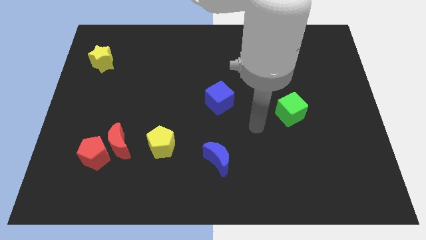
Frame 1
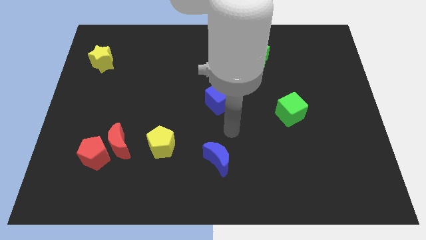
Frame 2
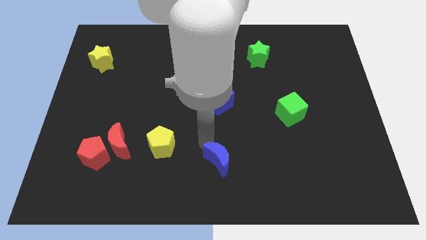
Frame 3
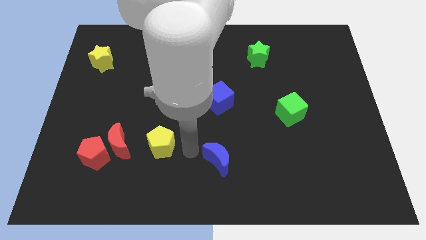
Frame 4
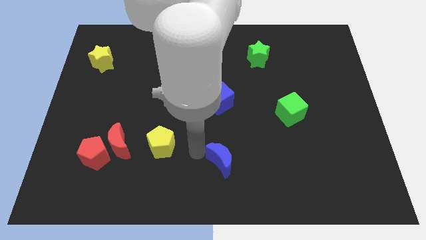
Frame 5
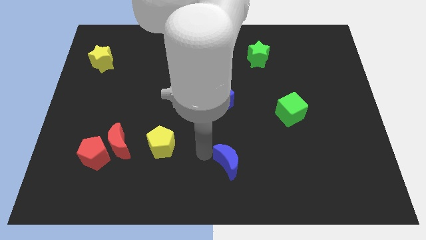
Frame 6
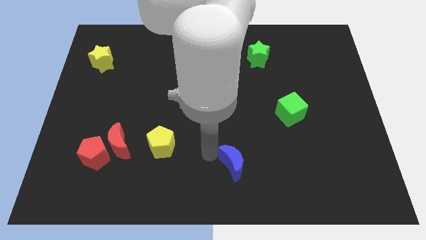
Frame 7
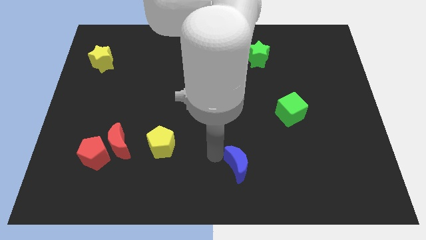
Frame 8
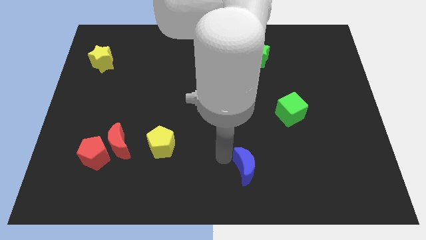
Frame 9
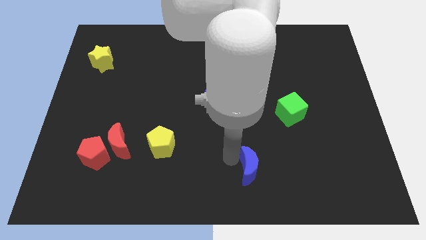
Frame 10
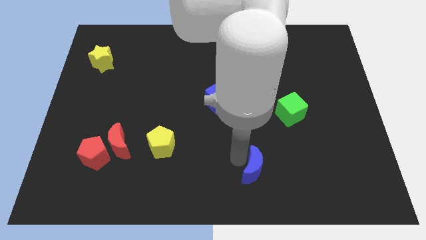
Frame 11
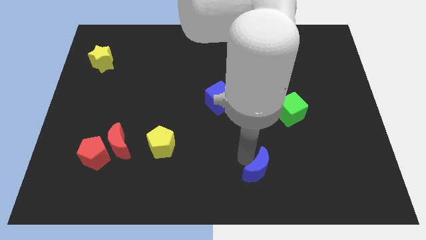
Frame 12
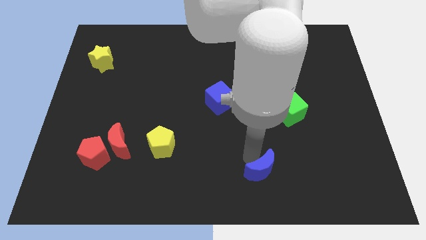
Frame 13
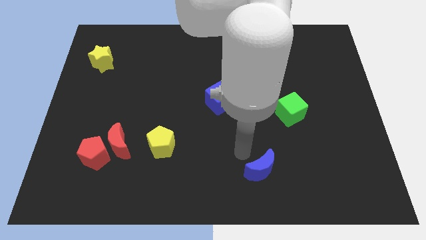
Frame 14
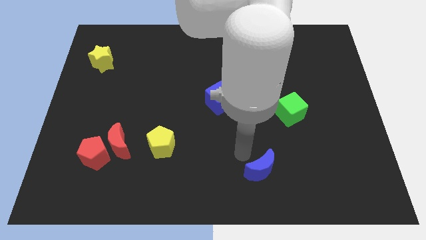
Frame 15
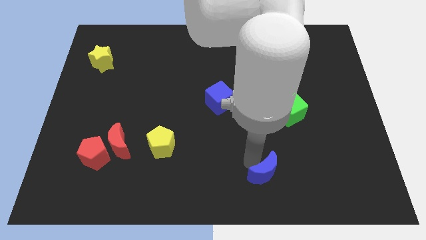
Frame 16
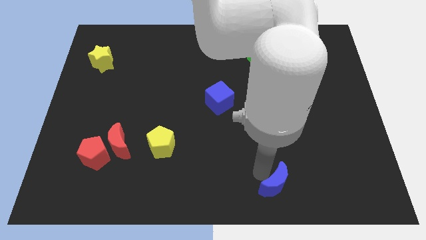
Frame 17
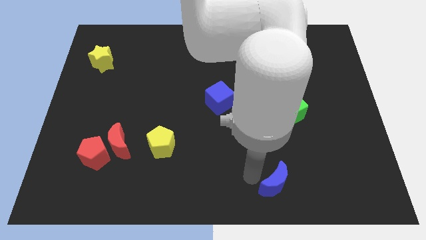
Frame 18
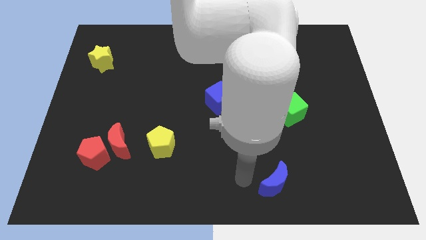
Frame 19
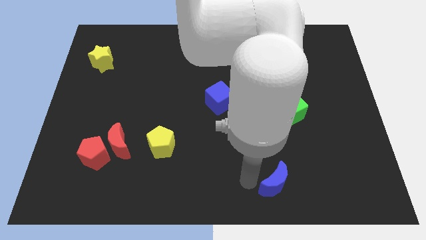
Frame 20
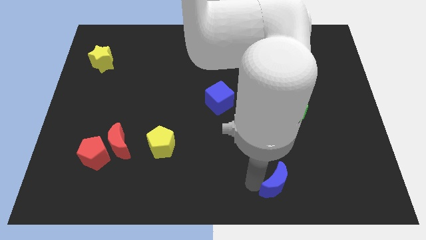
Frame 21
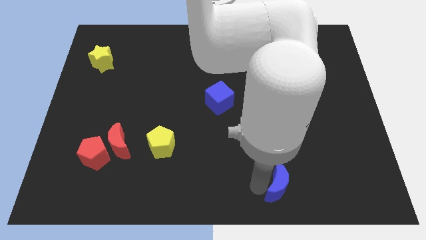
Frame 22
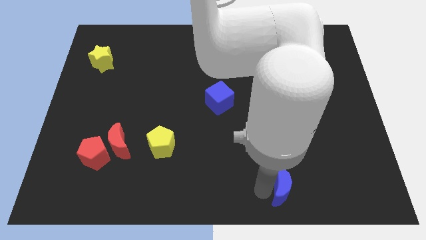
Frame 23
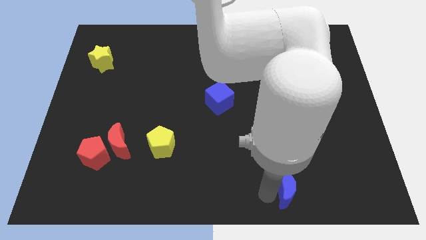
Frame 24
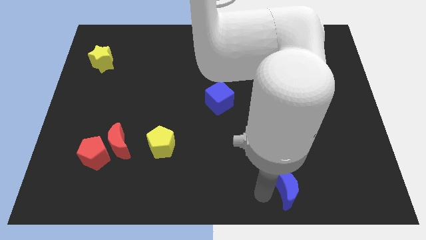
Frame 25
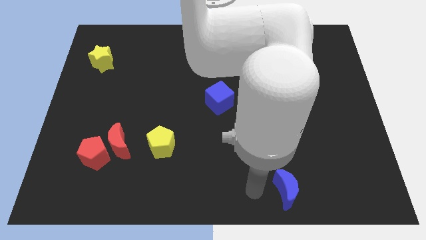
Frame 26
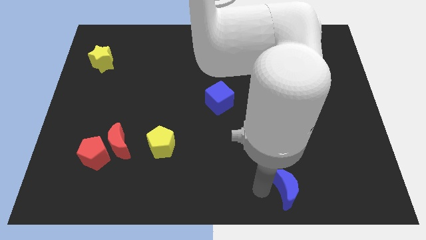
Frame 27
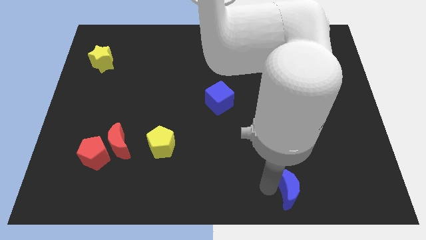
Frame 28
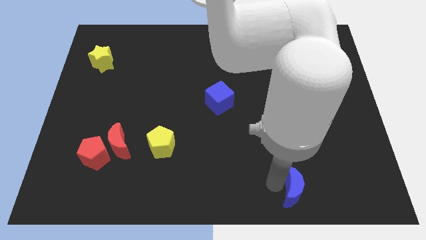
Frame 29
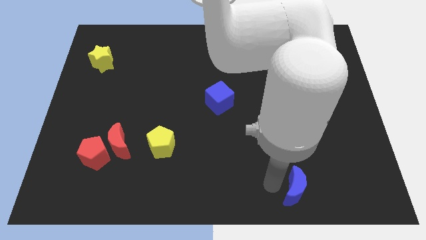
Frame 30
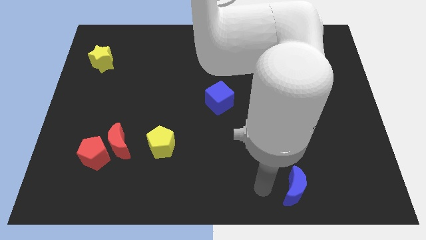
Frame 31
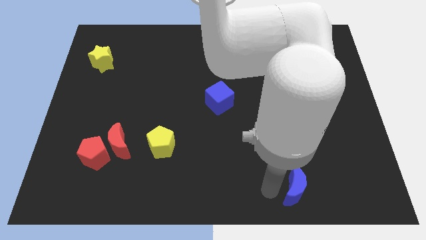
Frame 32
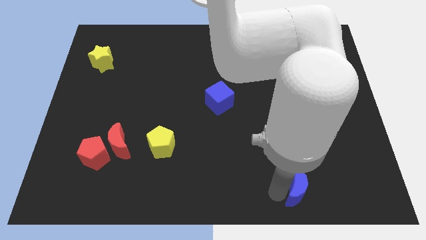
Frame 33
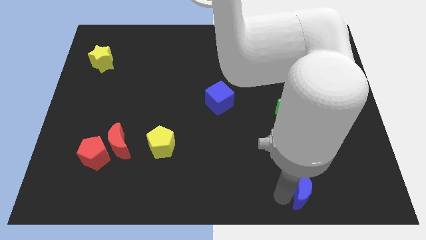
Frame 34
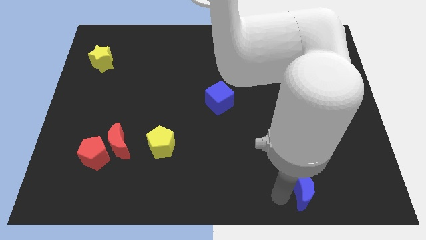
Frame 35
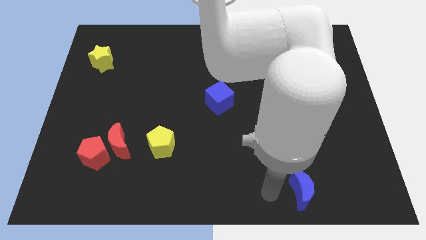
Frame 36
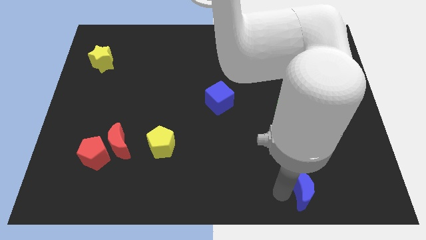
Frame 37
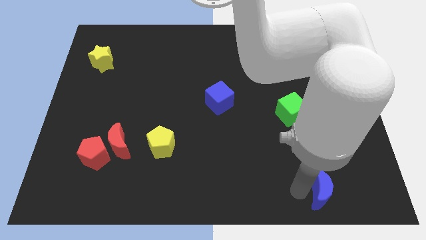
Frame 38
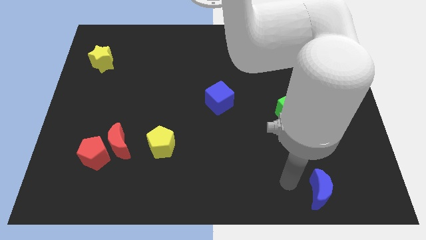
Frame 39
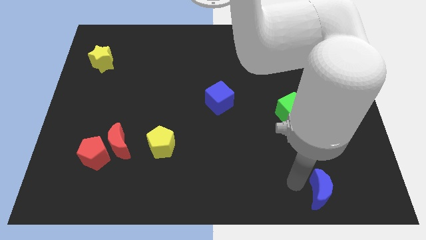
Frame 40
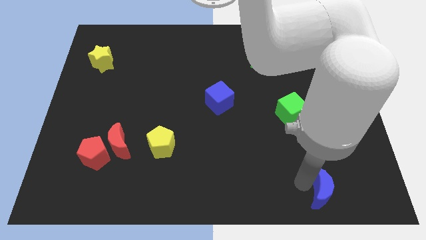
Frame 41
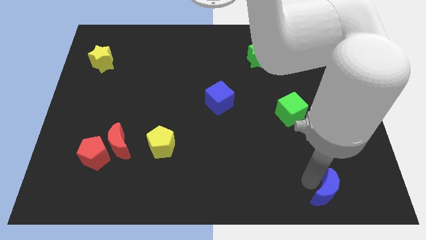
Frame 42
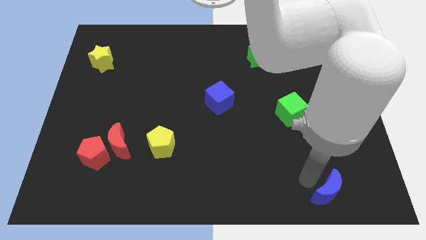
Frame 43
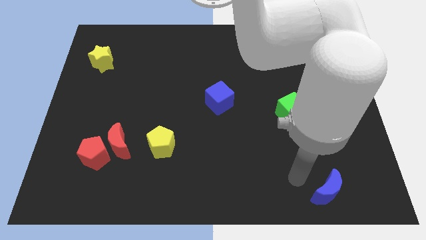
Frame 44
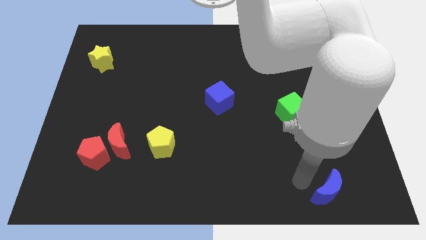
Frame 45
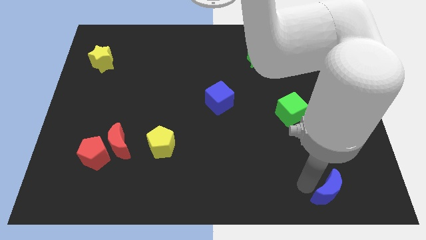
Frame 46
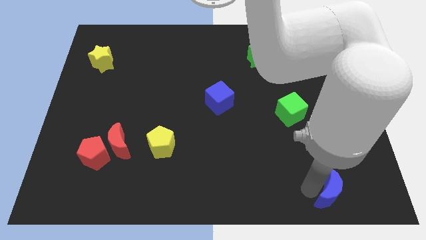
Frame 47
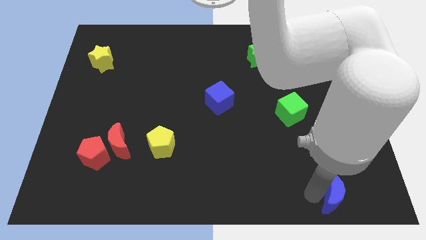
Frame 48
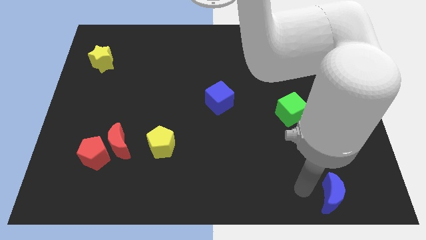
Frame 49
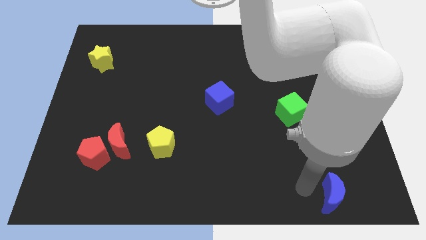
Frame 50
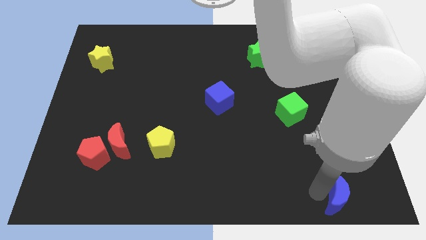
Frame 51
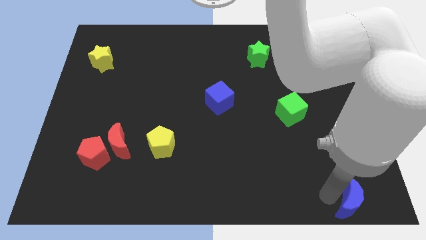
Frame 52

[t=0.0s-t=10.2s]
push the blue moon to the bottom right corner
